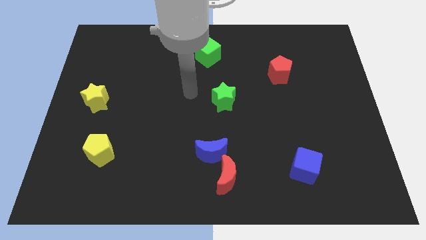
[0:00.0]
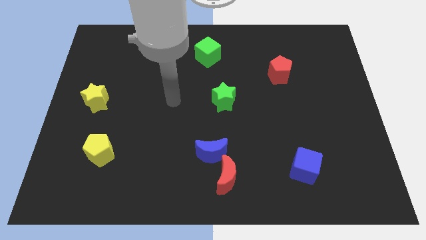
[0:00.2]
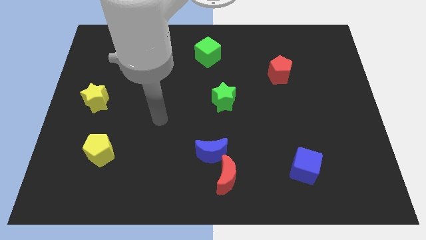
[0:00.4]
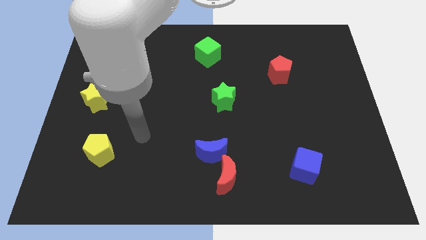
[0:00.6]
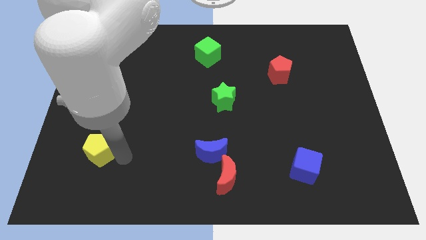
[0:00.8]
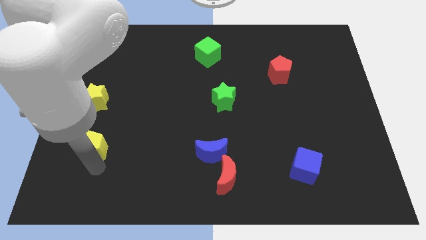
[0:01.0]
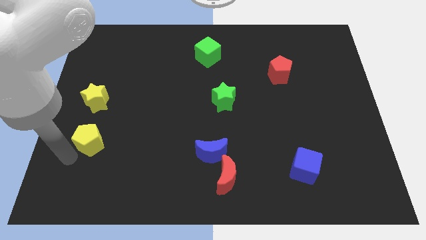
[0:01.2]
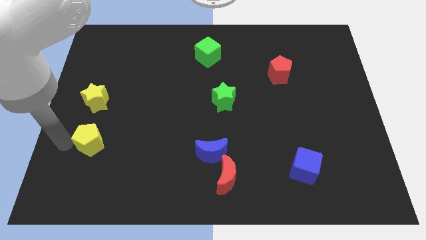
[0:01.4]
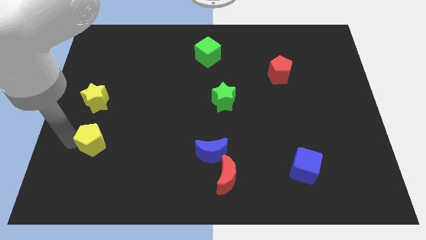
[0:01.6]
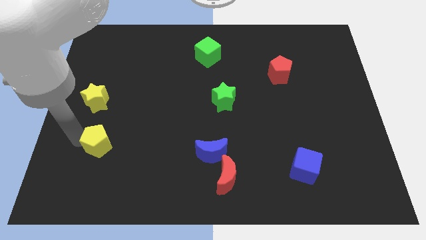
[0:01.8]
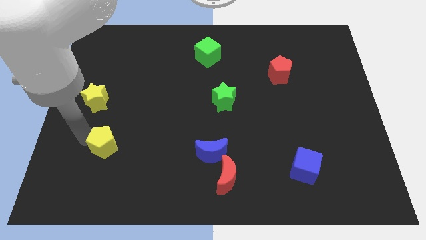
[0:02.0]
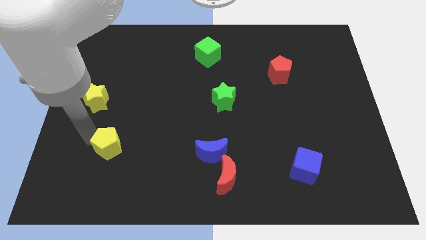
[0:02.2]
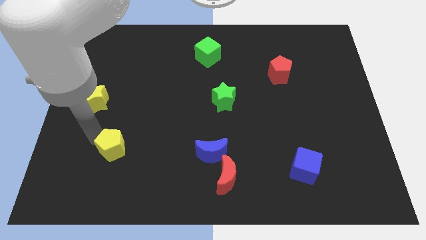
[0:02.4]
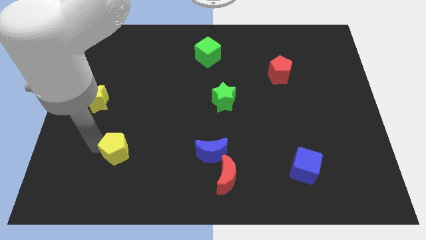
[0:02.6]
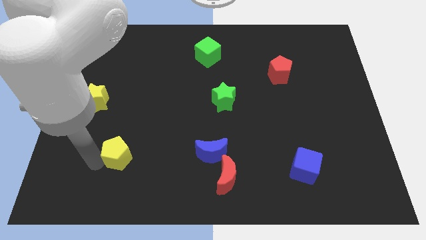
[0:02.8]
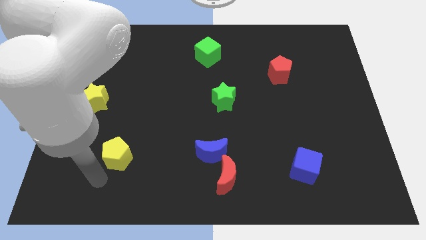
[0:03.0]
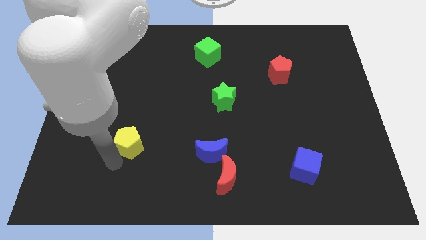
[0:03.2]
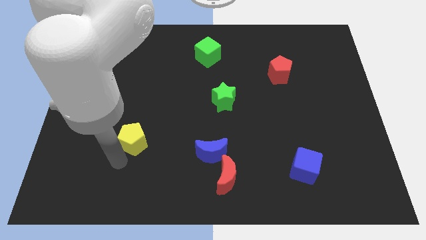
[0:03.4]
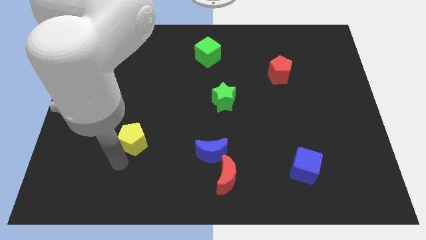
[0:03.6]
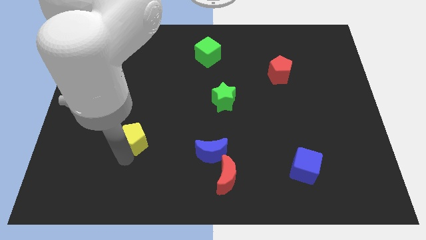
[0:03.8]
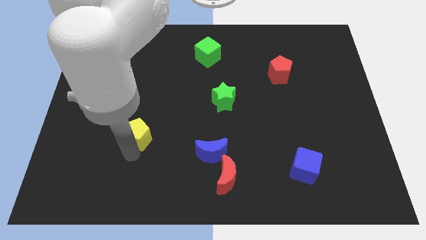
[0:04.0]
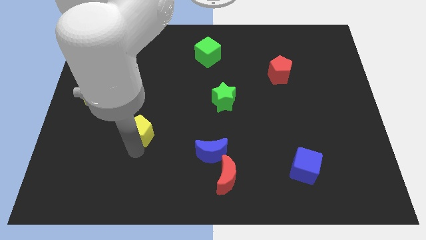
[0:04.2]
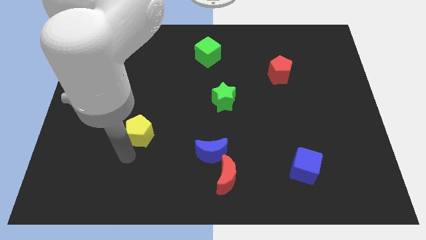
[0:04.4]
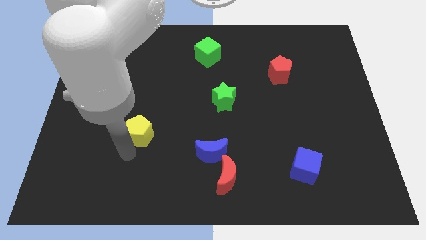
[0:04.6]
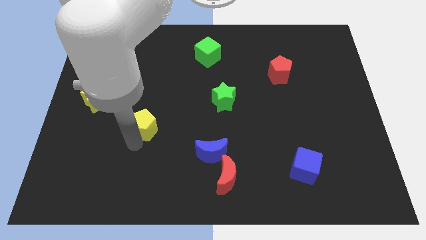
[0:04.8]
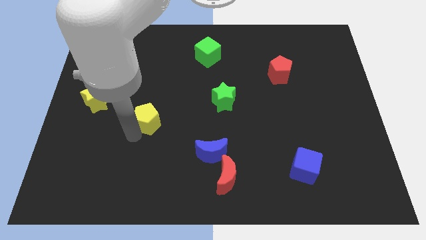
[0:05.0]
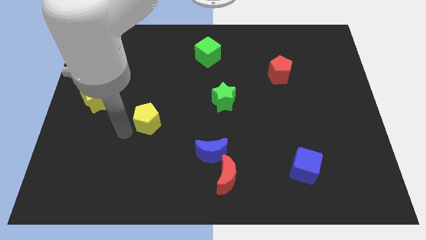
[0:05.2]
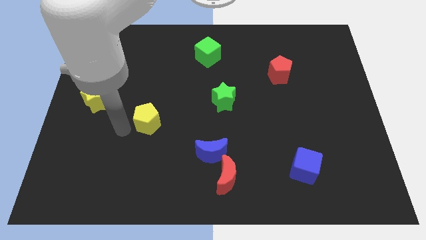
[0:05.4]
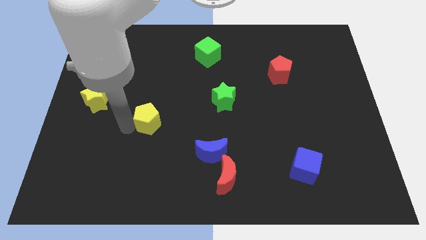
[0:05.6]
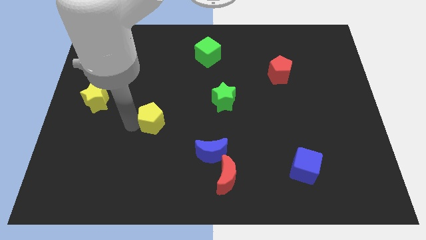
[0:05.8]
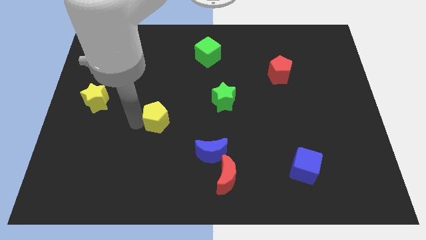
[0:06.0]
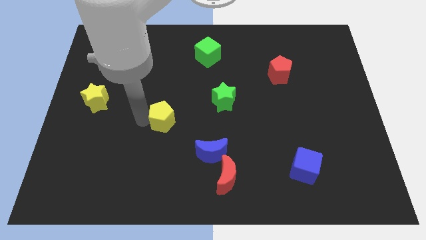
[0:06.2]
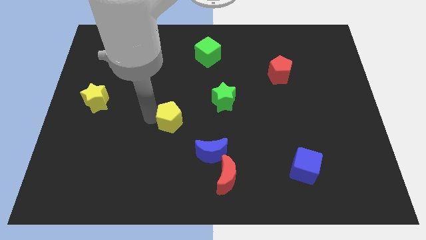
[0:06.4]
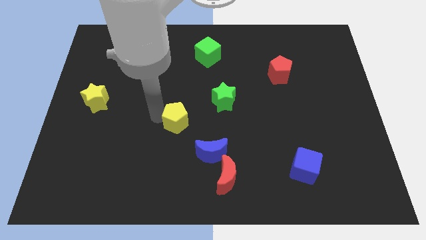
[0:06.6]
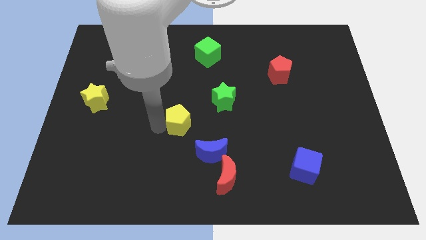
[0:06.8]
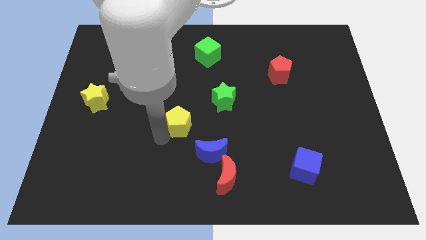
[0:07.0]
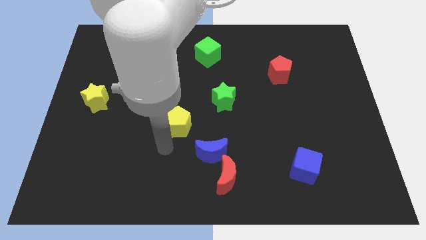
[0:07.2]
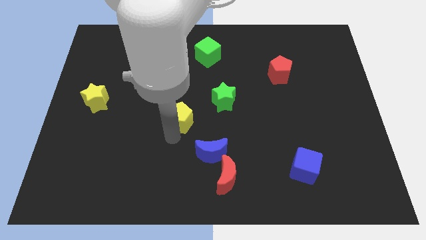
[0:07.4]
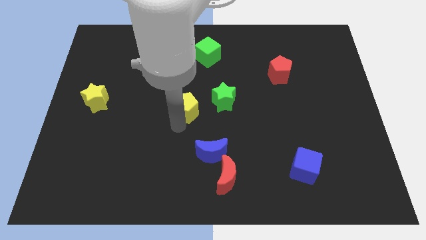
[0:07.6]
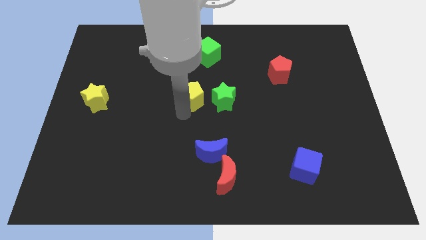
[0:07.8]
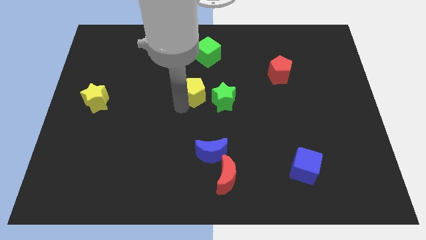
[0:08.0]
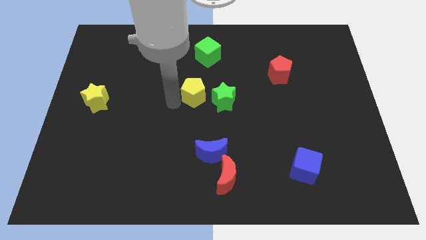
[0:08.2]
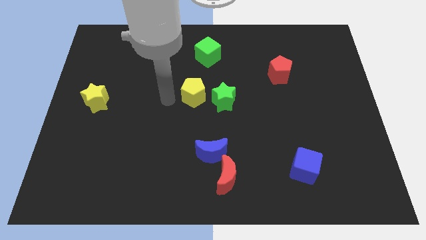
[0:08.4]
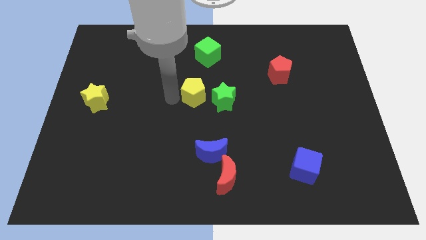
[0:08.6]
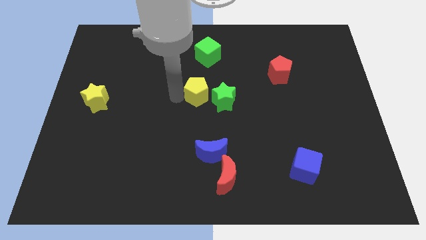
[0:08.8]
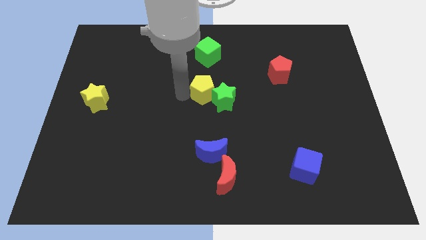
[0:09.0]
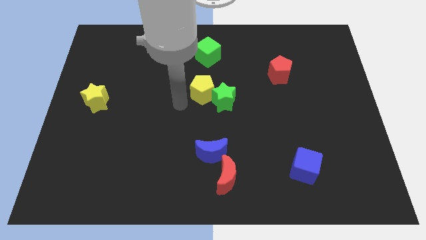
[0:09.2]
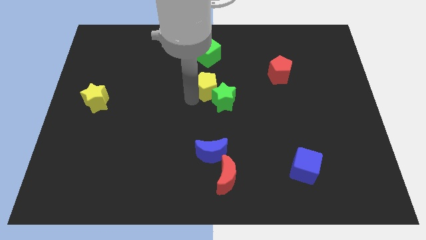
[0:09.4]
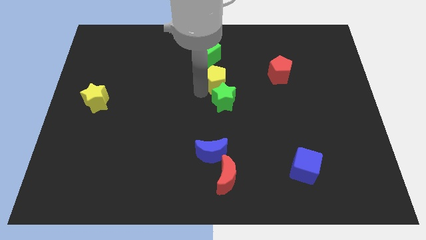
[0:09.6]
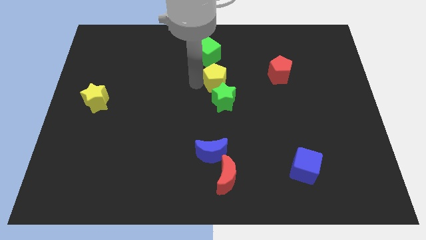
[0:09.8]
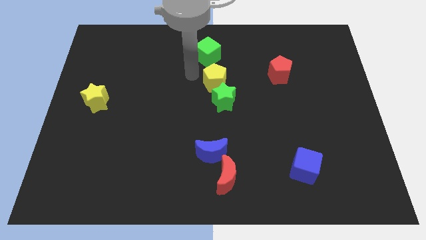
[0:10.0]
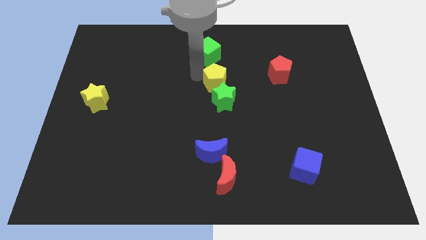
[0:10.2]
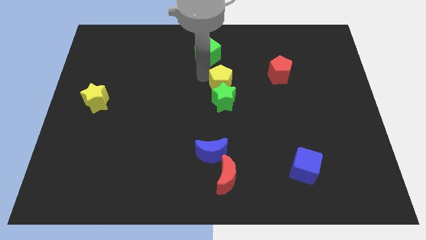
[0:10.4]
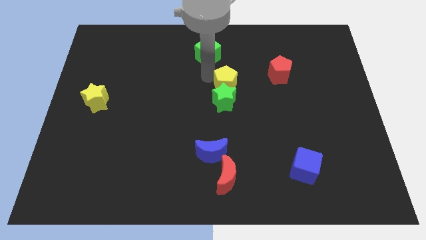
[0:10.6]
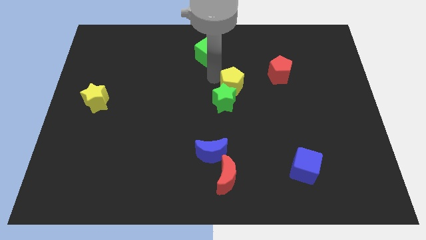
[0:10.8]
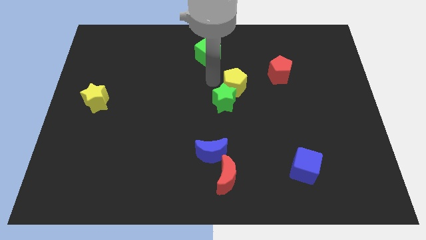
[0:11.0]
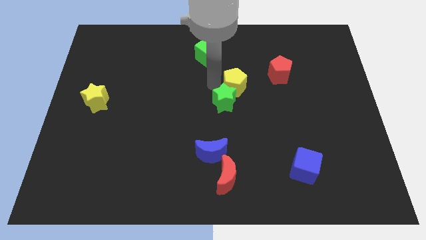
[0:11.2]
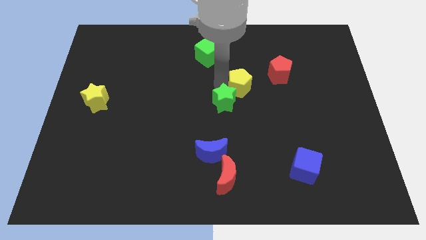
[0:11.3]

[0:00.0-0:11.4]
move the yellow pentagon to the bottom left side of the red pentagon
